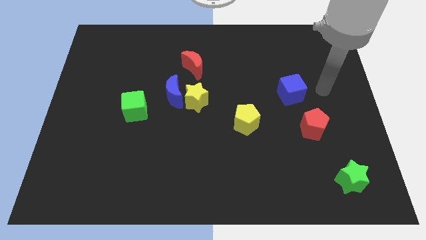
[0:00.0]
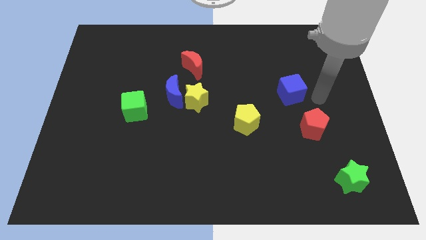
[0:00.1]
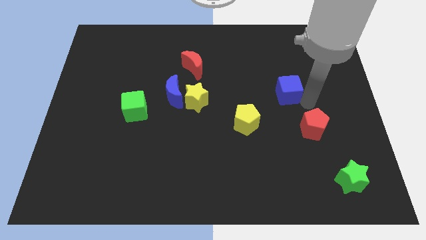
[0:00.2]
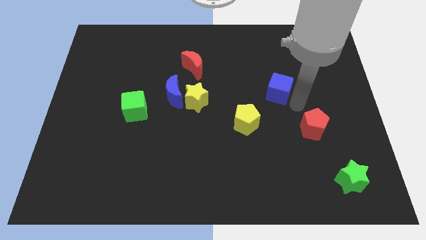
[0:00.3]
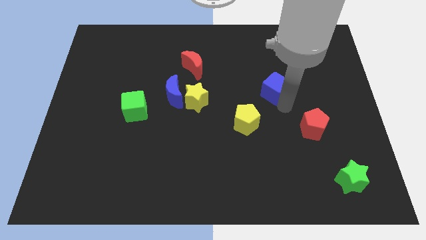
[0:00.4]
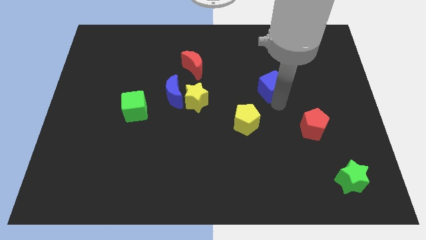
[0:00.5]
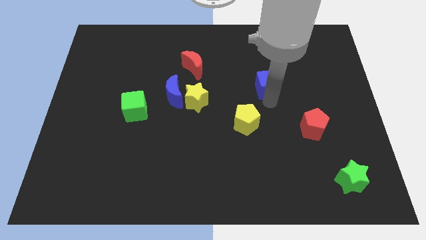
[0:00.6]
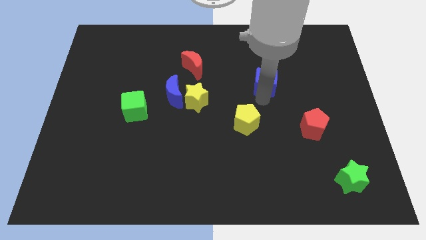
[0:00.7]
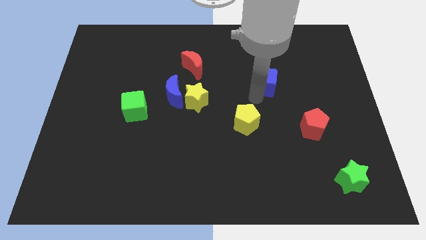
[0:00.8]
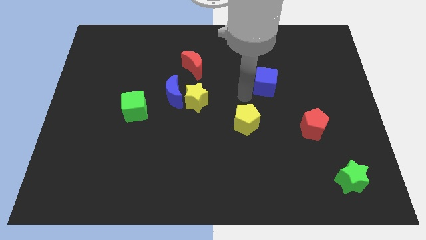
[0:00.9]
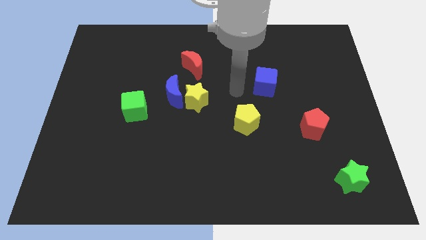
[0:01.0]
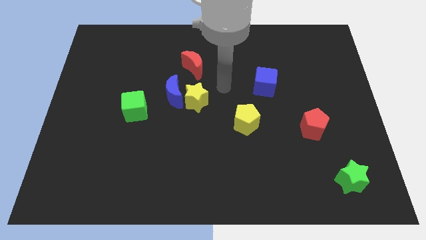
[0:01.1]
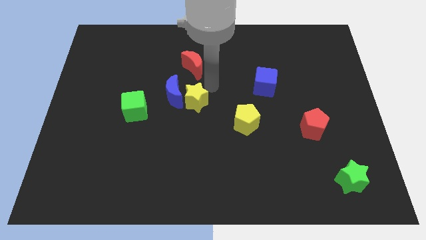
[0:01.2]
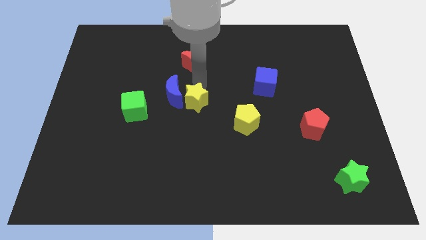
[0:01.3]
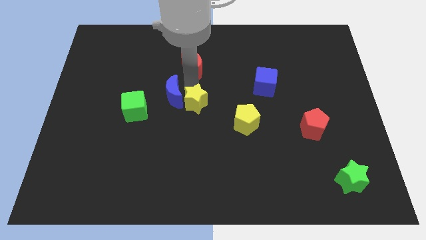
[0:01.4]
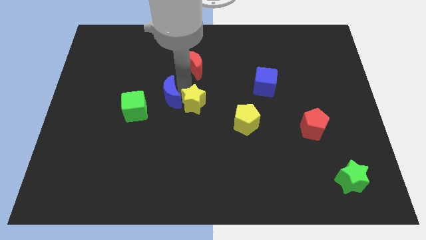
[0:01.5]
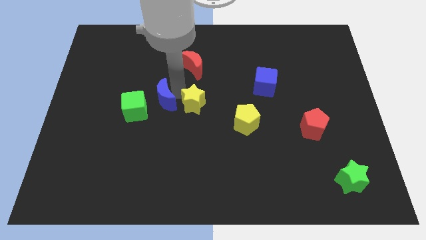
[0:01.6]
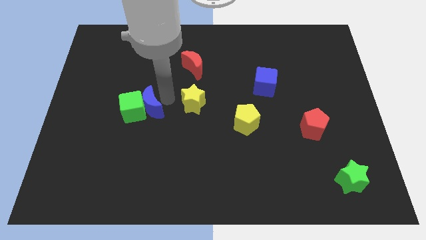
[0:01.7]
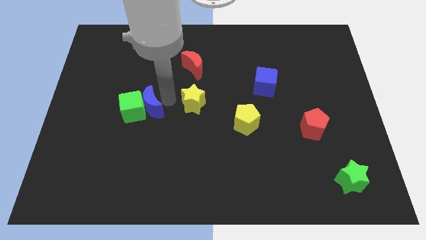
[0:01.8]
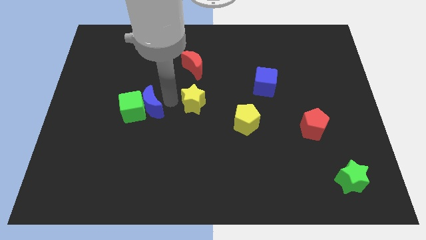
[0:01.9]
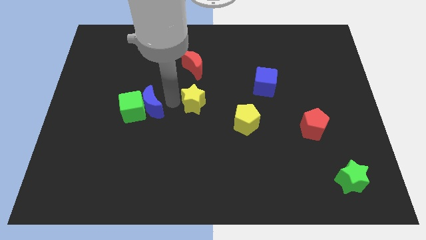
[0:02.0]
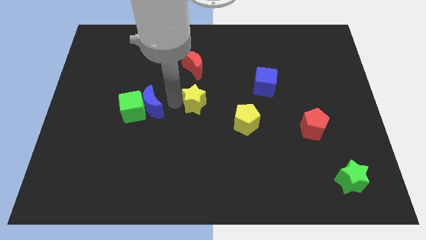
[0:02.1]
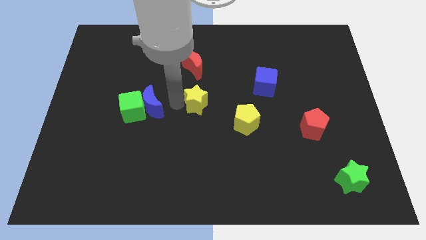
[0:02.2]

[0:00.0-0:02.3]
pull the yellow star apart from the blue moon

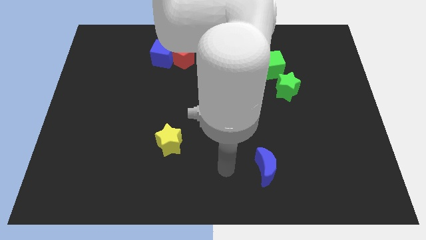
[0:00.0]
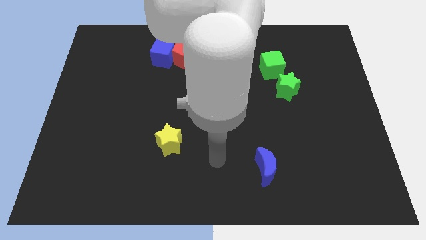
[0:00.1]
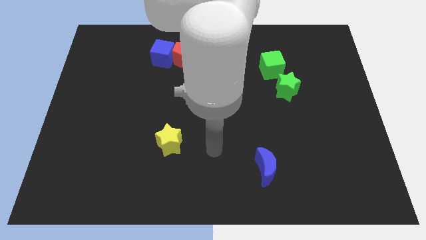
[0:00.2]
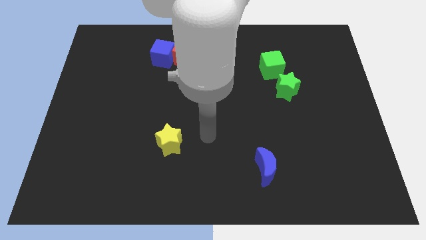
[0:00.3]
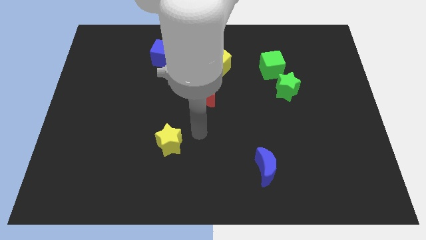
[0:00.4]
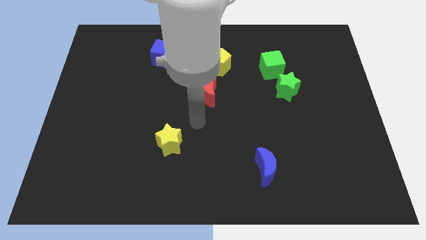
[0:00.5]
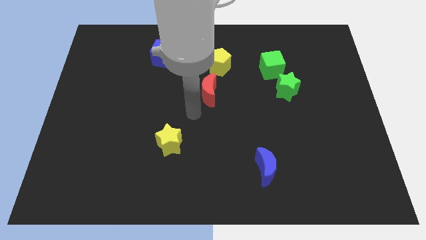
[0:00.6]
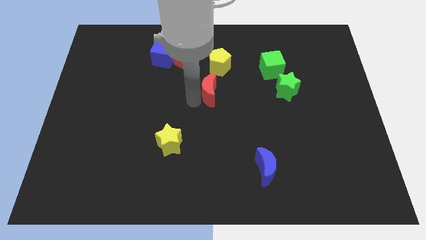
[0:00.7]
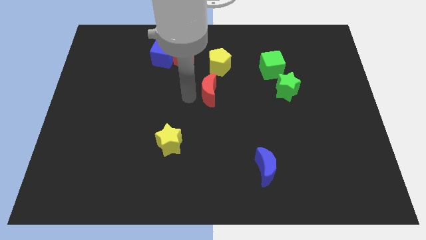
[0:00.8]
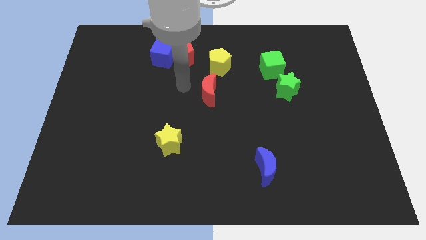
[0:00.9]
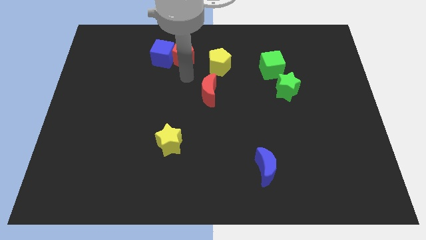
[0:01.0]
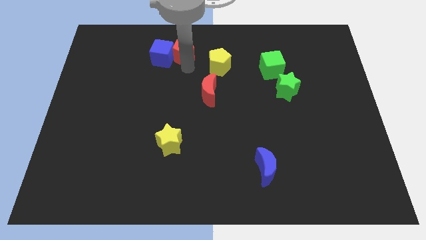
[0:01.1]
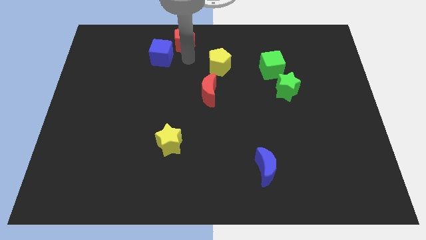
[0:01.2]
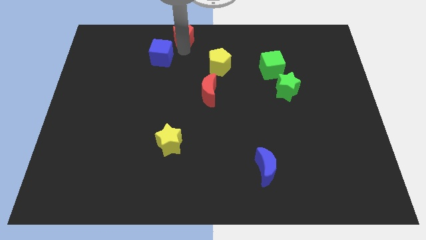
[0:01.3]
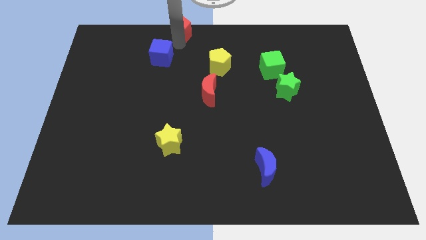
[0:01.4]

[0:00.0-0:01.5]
pull the blue cube apart from the red pentagon

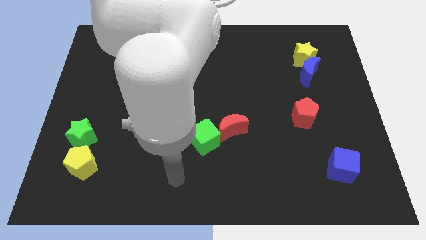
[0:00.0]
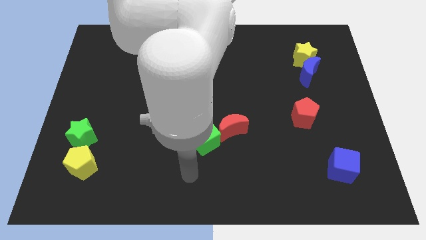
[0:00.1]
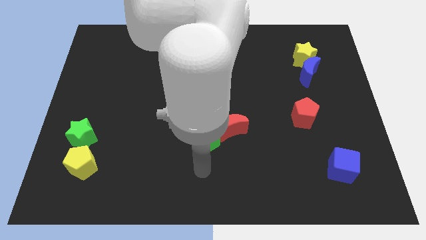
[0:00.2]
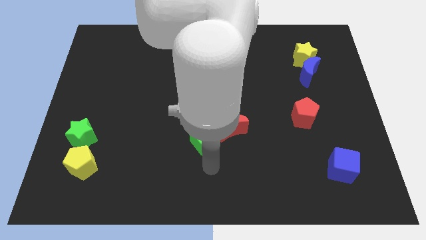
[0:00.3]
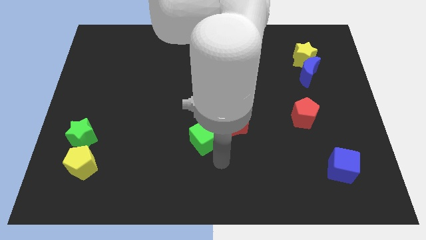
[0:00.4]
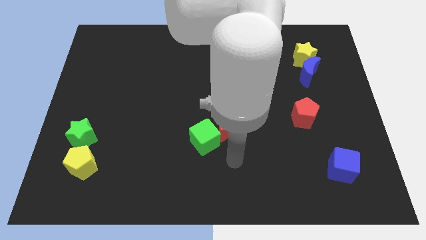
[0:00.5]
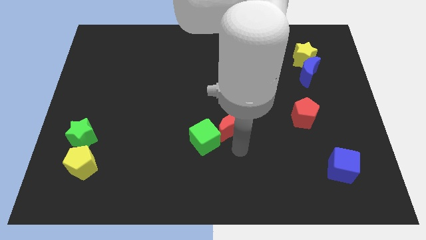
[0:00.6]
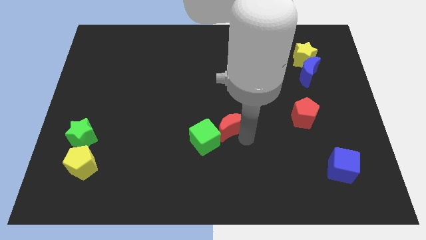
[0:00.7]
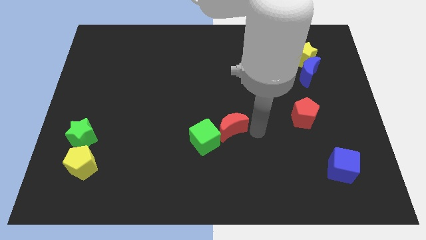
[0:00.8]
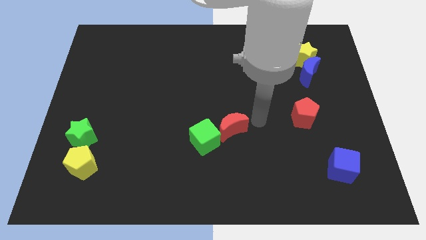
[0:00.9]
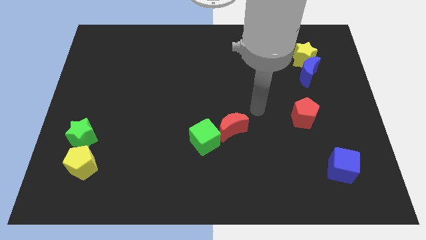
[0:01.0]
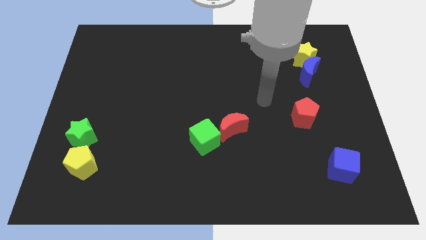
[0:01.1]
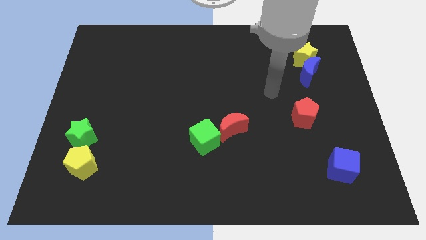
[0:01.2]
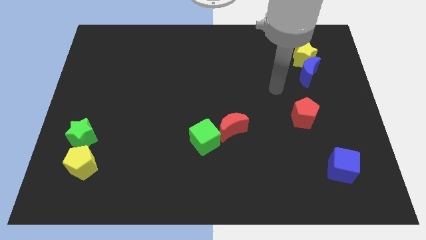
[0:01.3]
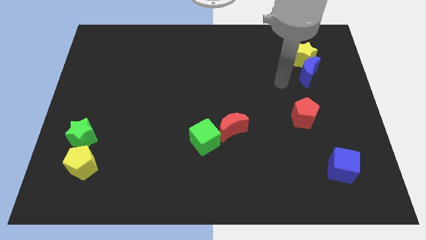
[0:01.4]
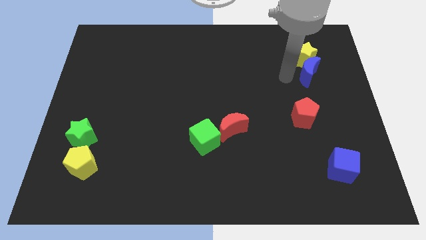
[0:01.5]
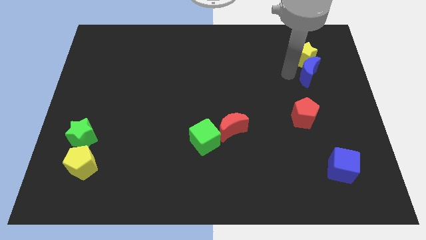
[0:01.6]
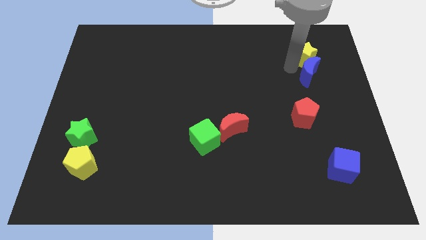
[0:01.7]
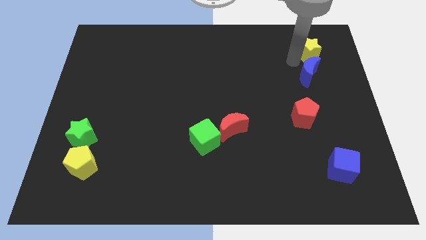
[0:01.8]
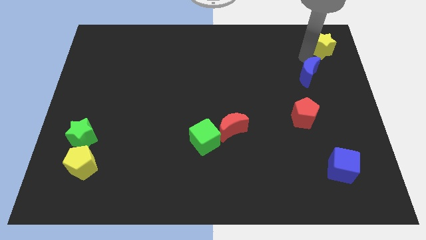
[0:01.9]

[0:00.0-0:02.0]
pull the blue moon apart from the yellow star

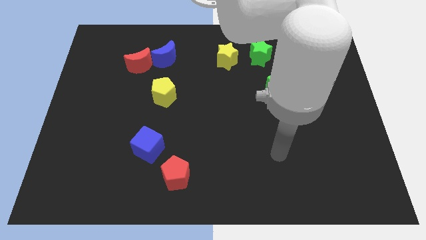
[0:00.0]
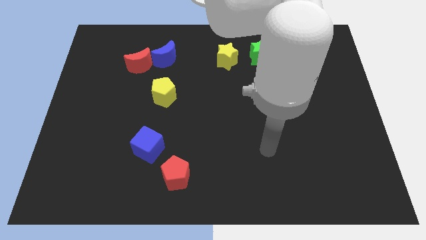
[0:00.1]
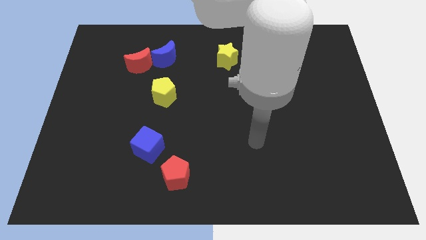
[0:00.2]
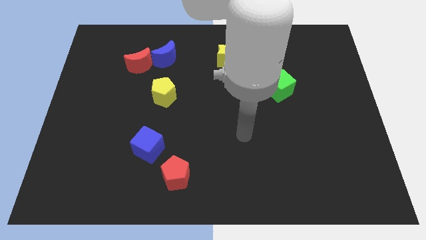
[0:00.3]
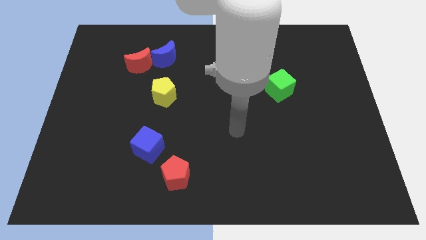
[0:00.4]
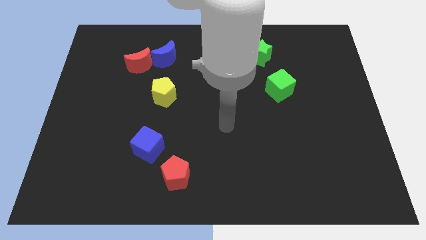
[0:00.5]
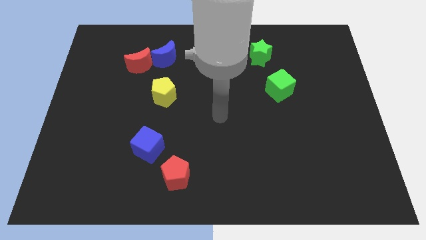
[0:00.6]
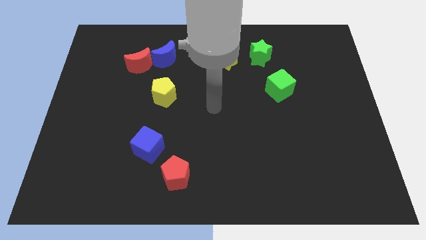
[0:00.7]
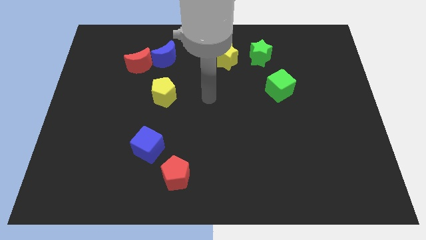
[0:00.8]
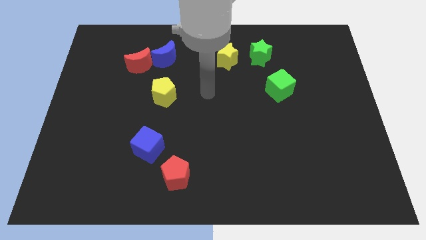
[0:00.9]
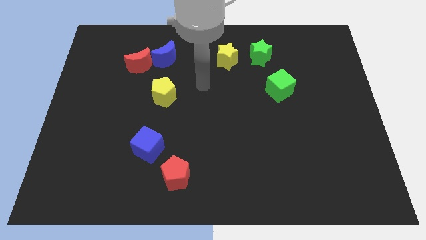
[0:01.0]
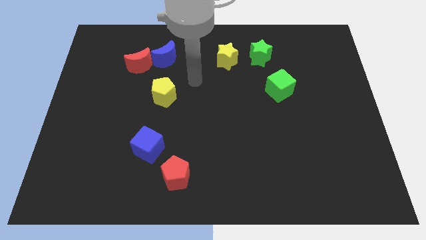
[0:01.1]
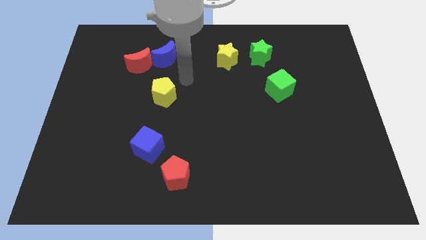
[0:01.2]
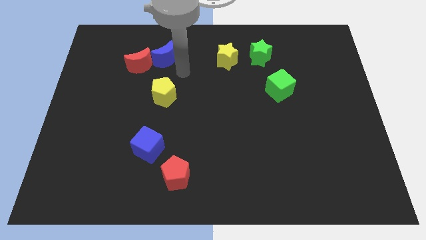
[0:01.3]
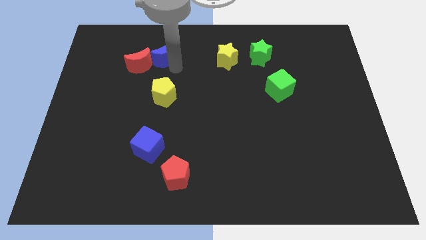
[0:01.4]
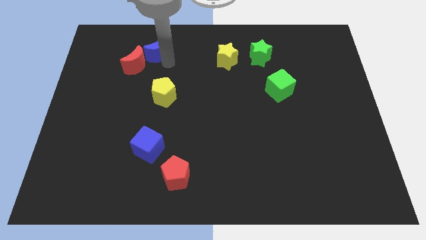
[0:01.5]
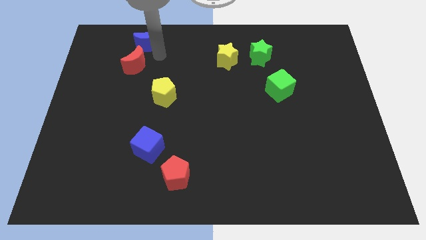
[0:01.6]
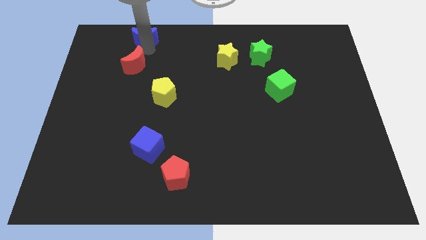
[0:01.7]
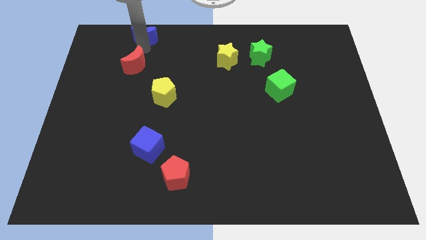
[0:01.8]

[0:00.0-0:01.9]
pull the red moon apart from the blue moon

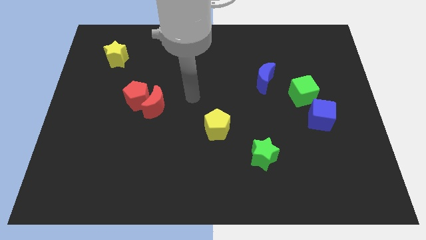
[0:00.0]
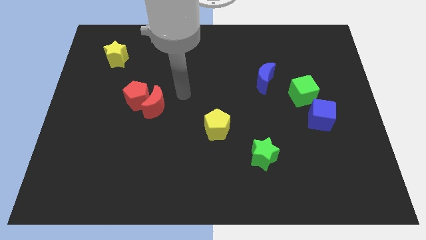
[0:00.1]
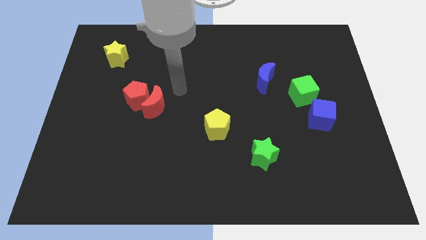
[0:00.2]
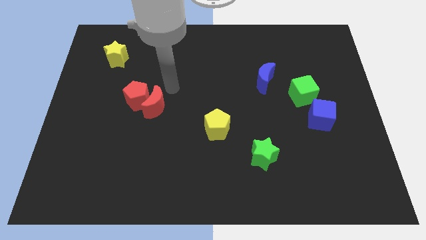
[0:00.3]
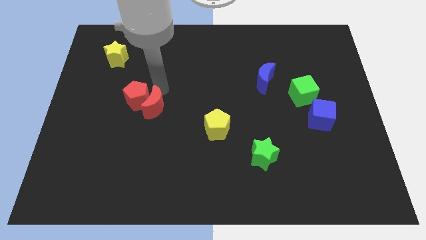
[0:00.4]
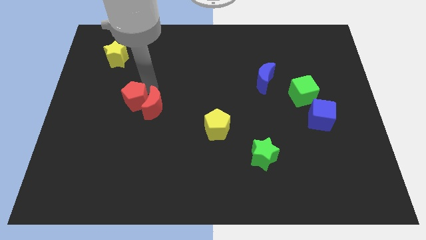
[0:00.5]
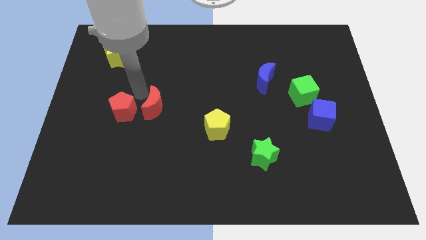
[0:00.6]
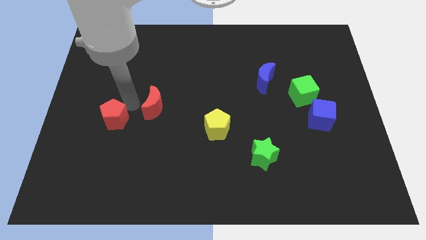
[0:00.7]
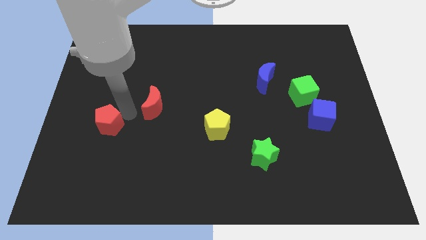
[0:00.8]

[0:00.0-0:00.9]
separate the red moon from the red pentagon

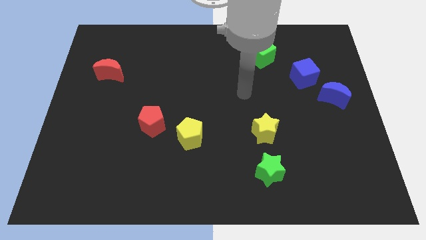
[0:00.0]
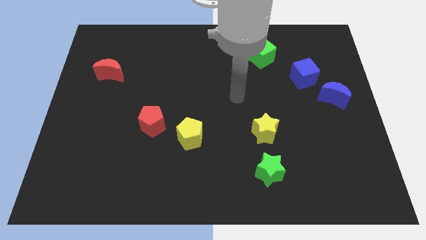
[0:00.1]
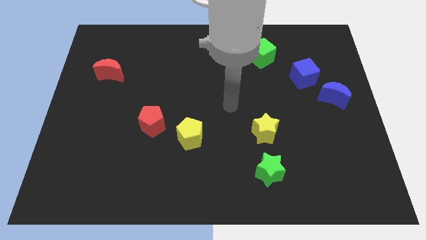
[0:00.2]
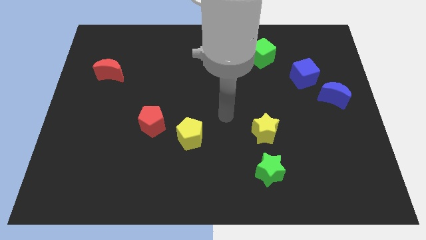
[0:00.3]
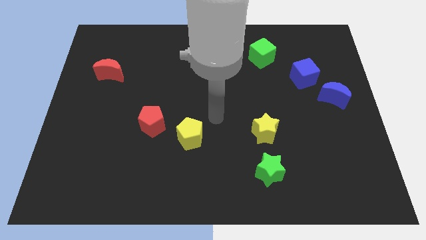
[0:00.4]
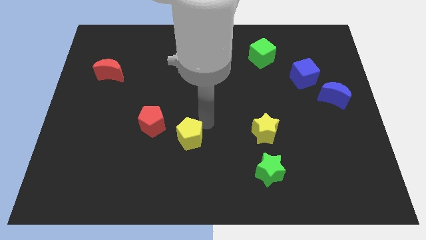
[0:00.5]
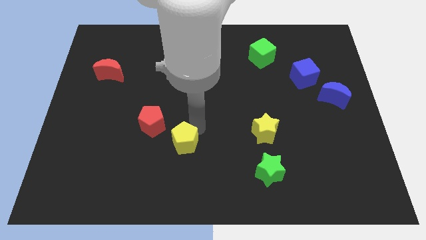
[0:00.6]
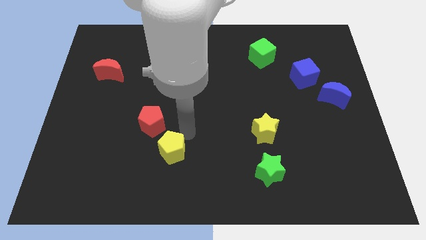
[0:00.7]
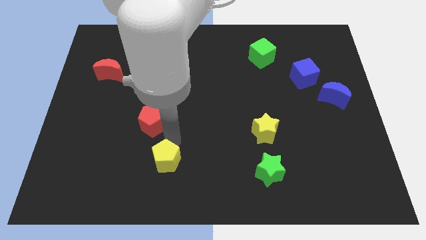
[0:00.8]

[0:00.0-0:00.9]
separate the red pentagon from the yellow pentagon
